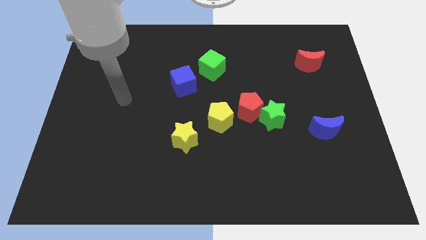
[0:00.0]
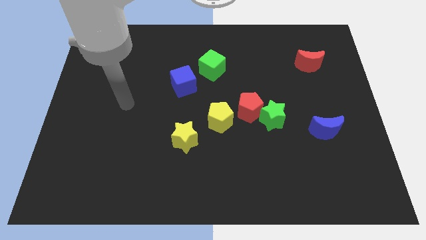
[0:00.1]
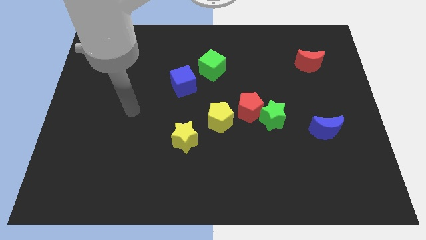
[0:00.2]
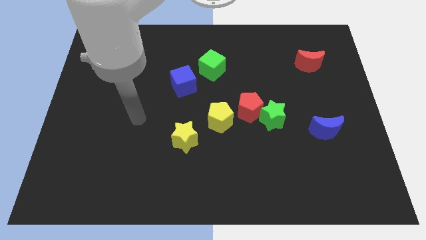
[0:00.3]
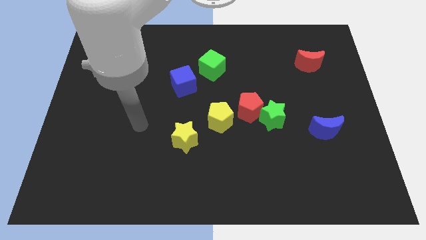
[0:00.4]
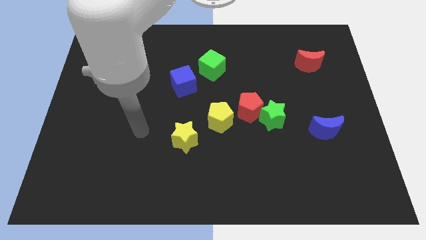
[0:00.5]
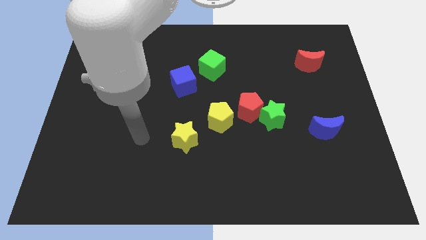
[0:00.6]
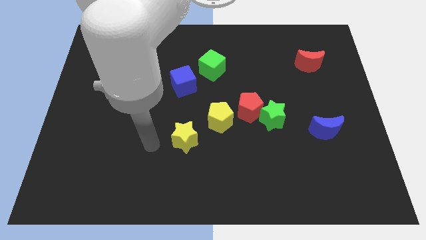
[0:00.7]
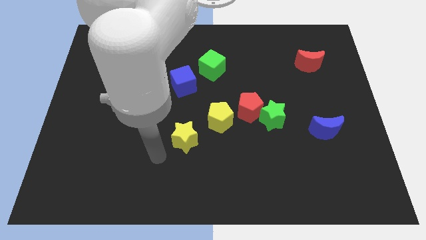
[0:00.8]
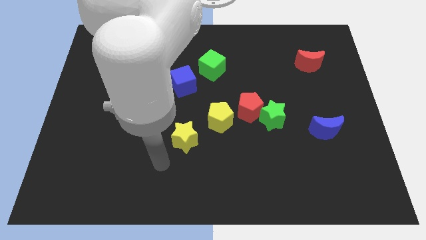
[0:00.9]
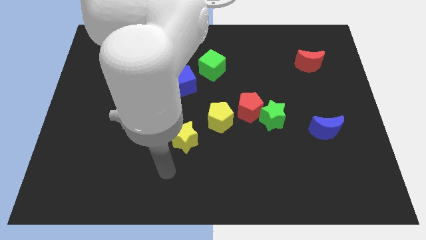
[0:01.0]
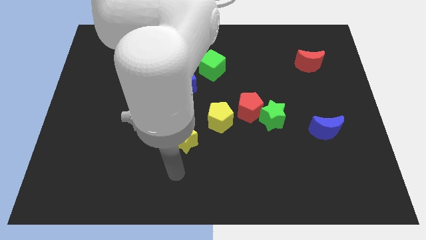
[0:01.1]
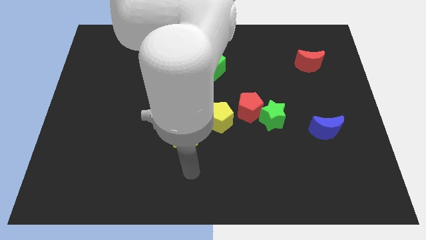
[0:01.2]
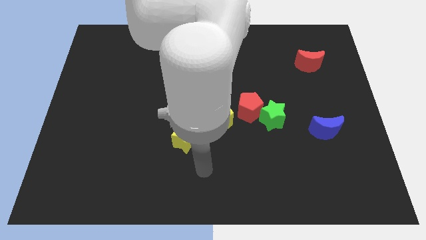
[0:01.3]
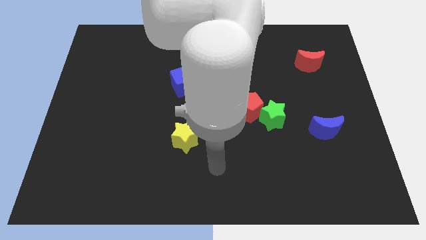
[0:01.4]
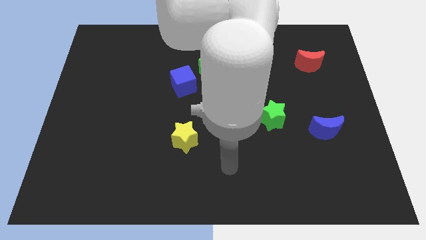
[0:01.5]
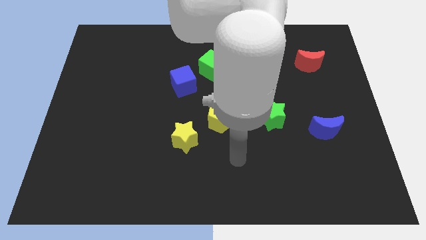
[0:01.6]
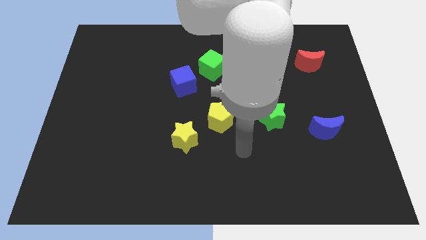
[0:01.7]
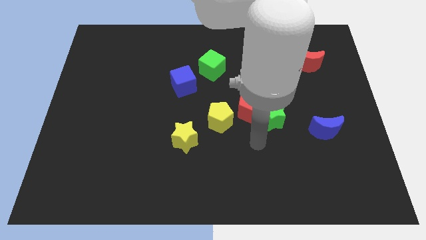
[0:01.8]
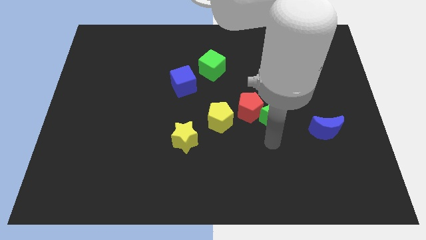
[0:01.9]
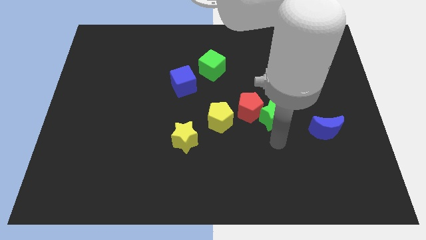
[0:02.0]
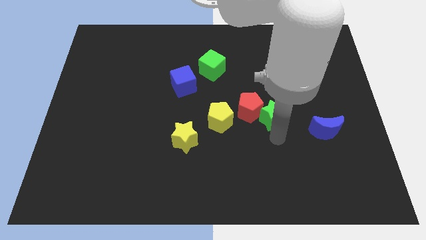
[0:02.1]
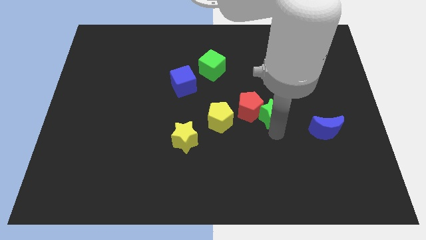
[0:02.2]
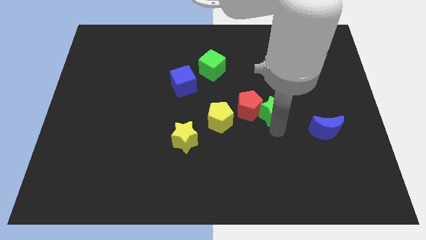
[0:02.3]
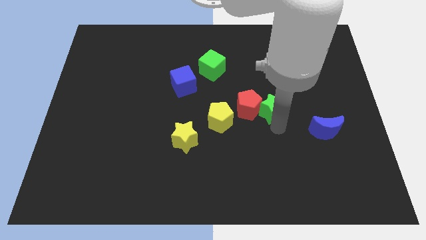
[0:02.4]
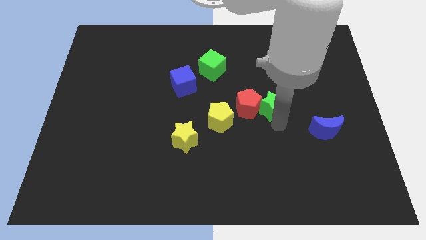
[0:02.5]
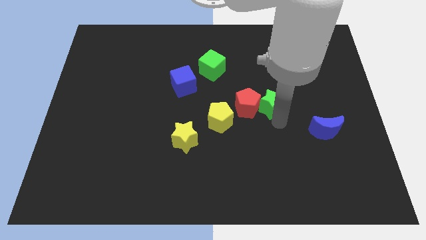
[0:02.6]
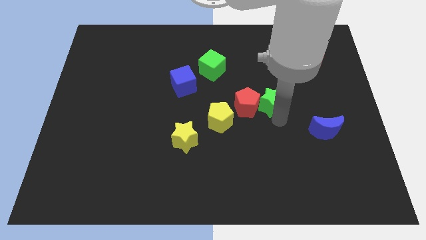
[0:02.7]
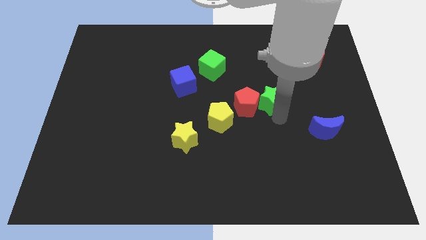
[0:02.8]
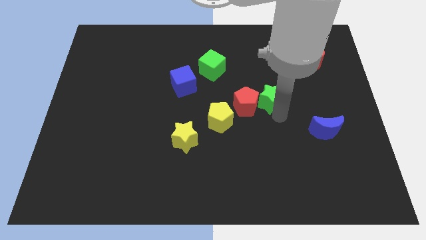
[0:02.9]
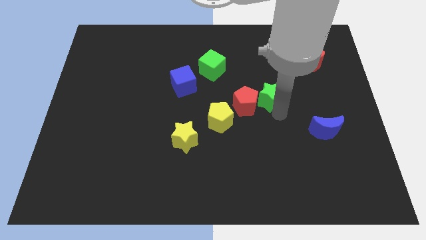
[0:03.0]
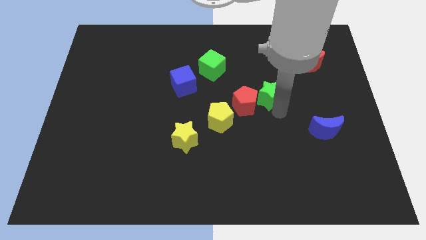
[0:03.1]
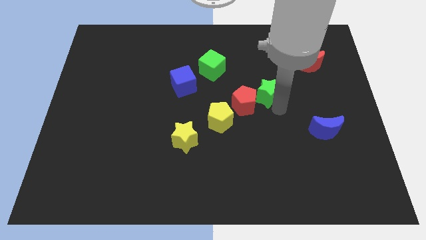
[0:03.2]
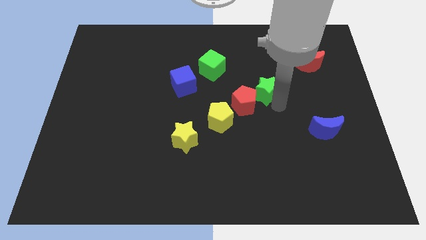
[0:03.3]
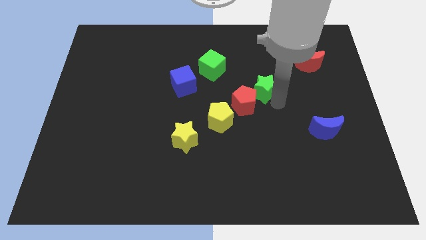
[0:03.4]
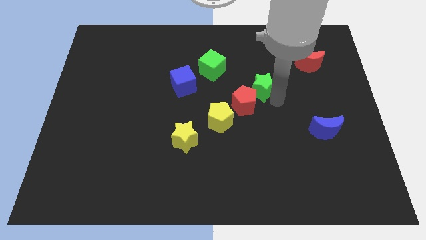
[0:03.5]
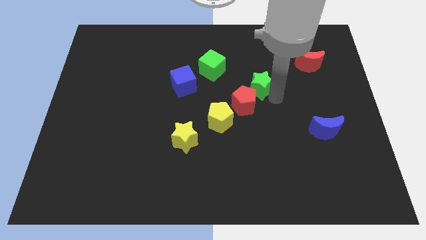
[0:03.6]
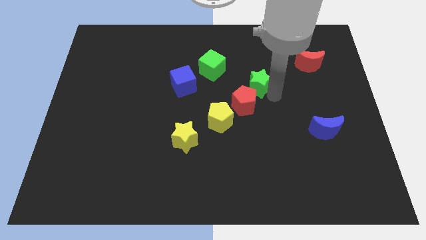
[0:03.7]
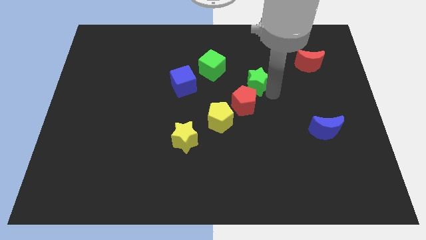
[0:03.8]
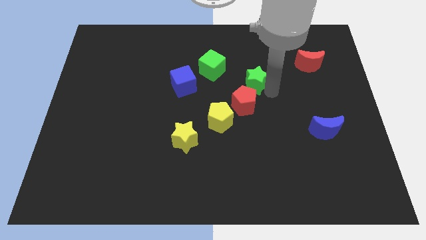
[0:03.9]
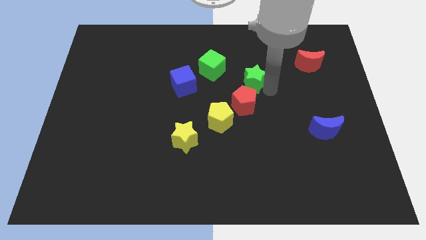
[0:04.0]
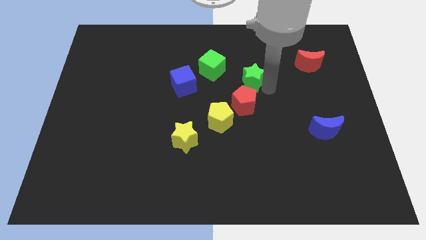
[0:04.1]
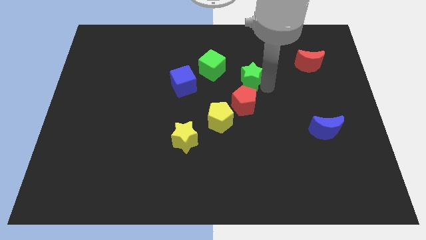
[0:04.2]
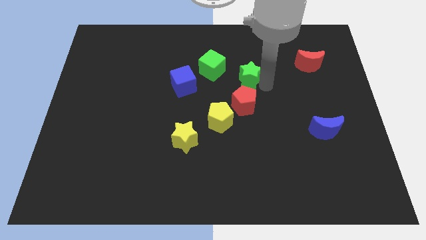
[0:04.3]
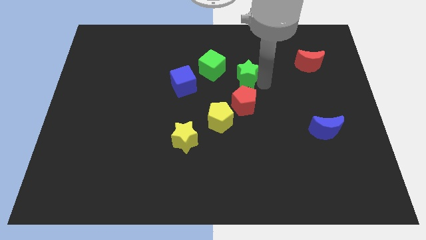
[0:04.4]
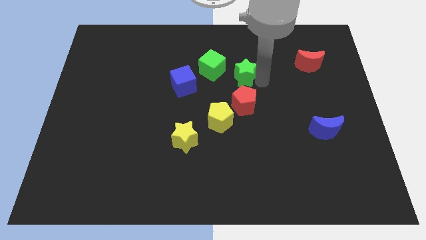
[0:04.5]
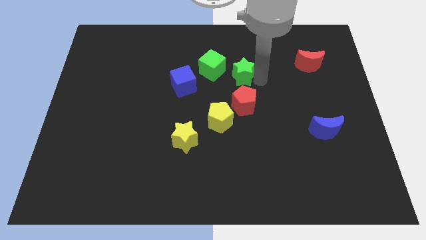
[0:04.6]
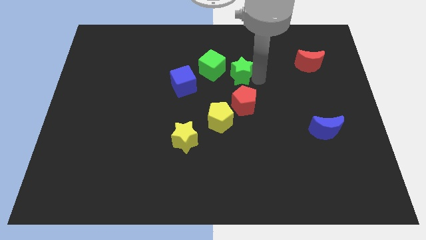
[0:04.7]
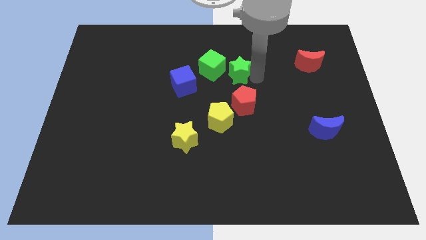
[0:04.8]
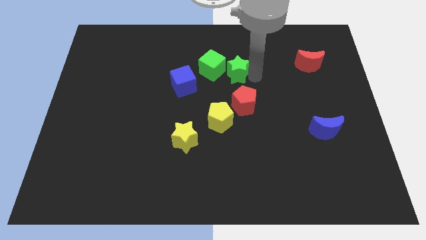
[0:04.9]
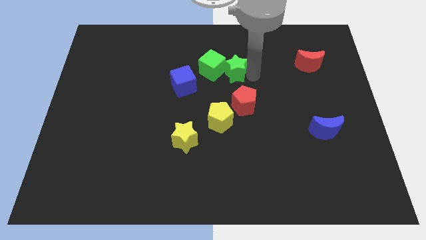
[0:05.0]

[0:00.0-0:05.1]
slide the green star close to the green cube

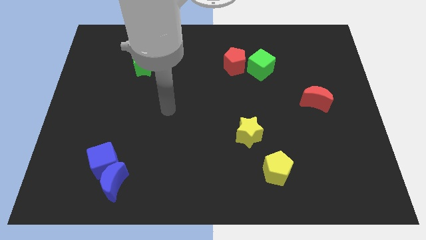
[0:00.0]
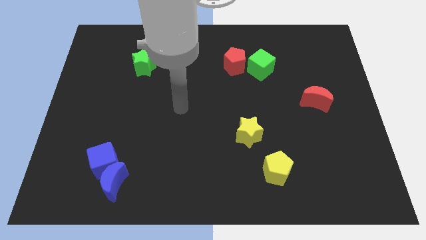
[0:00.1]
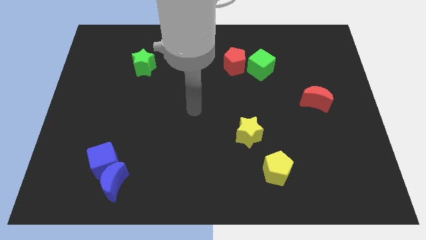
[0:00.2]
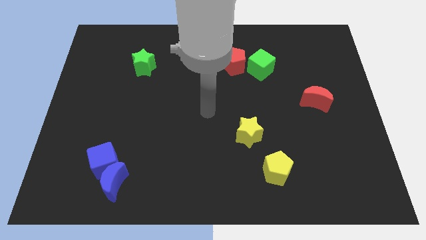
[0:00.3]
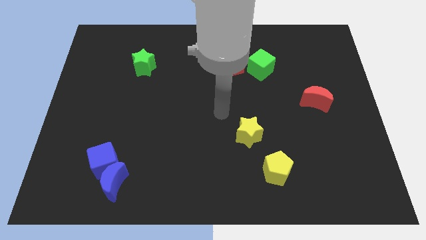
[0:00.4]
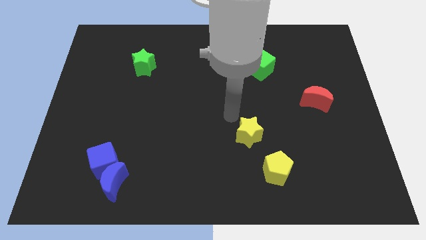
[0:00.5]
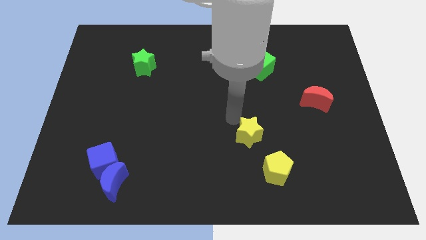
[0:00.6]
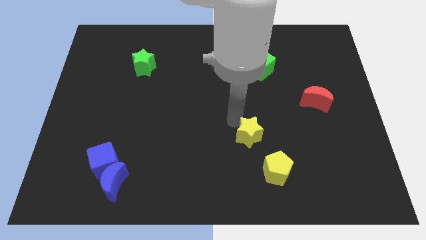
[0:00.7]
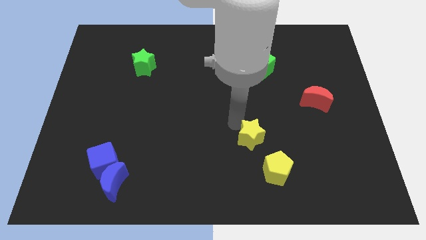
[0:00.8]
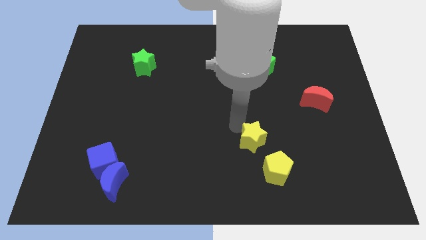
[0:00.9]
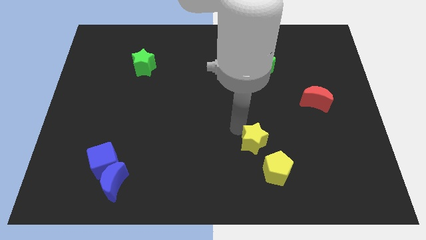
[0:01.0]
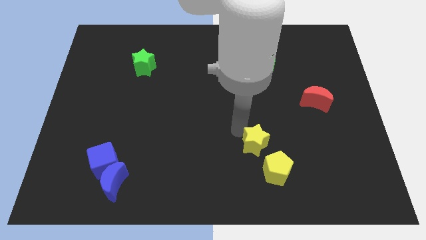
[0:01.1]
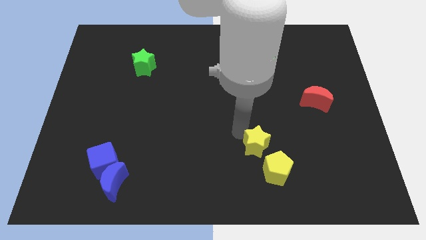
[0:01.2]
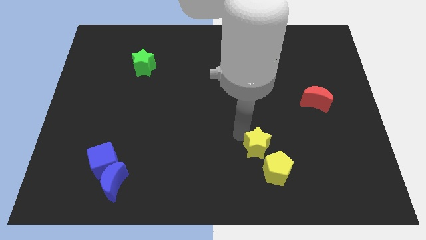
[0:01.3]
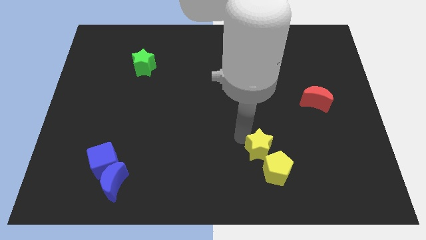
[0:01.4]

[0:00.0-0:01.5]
put the yellow star next to the yellow pentagon
